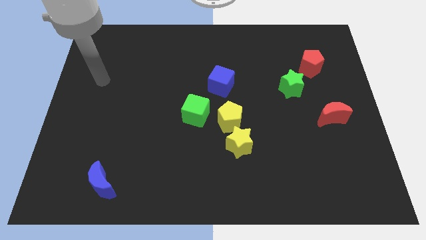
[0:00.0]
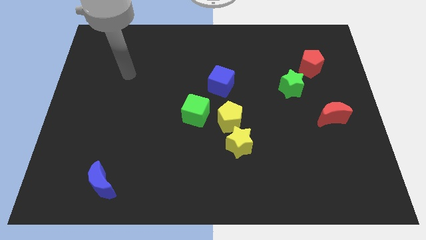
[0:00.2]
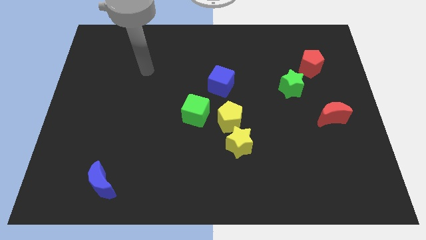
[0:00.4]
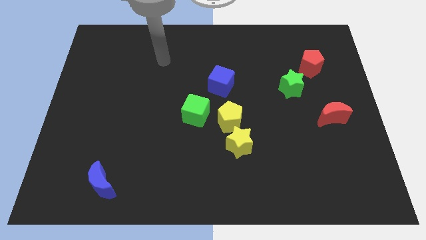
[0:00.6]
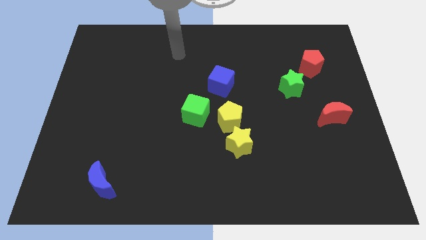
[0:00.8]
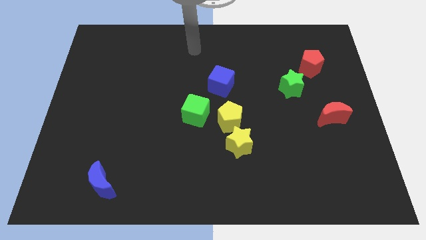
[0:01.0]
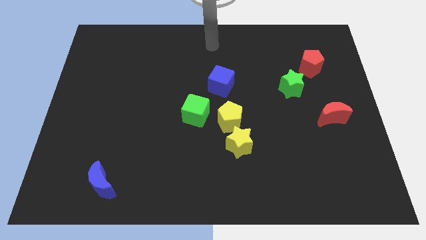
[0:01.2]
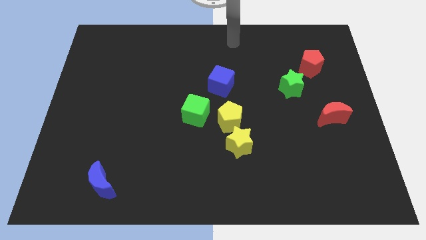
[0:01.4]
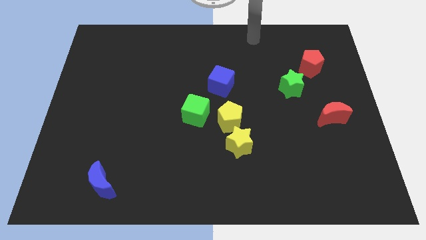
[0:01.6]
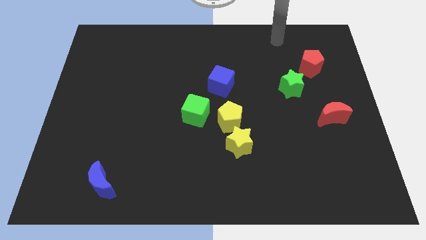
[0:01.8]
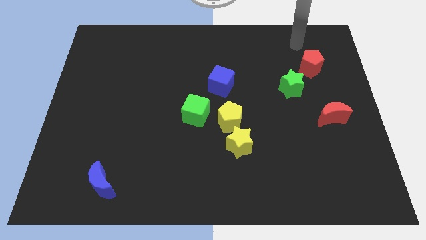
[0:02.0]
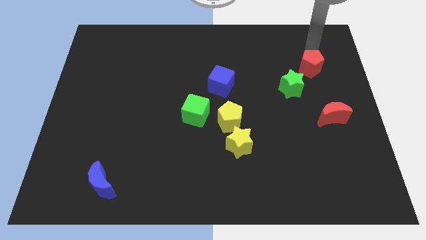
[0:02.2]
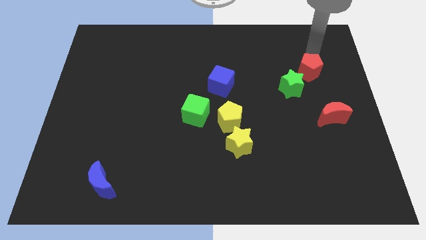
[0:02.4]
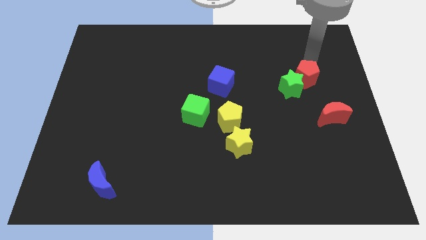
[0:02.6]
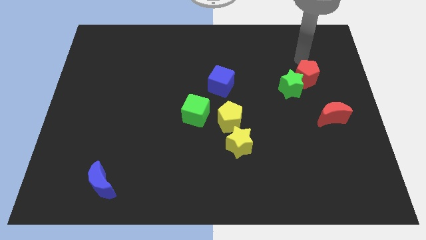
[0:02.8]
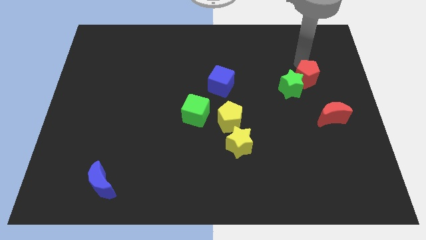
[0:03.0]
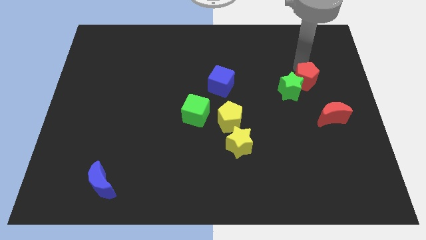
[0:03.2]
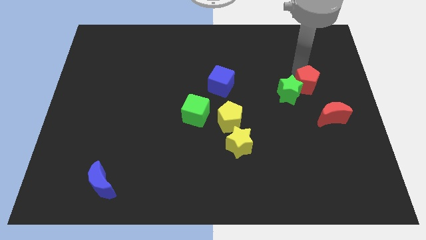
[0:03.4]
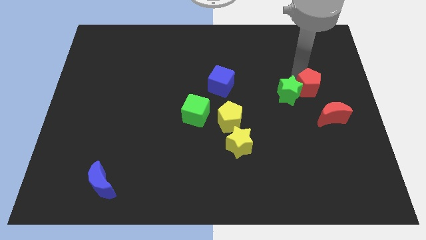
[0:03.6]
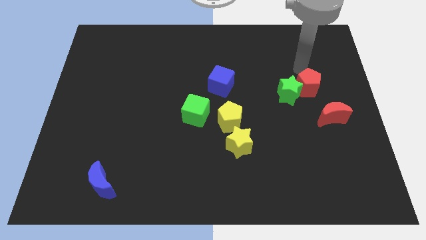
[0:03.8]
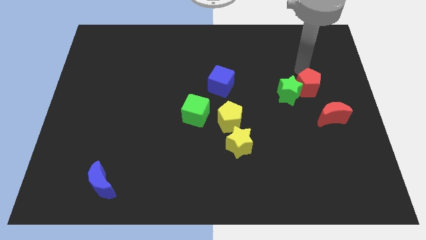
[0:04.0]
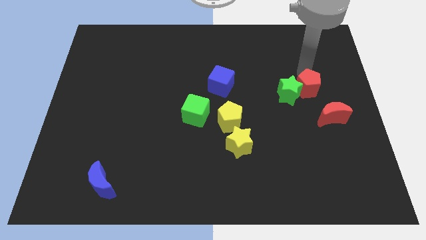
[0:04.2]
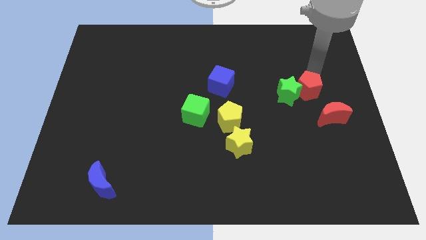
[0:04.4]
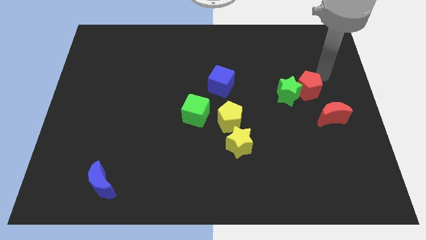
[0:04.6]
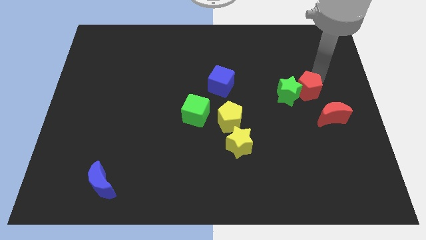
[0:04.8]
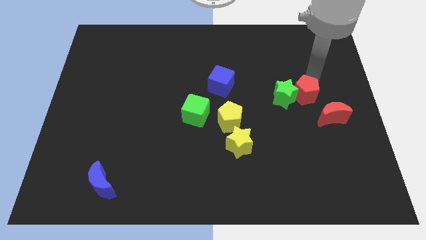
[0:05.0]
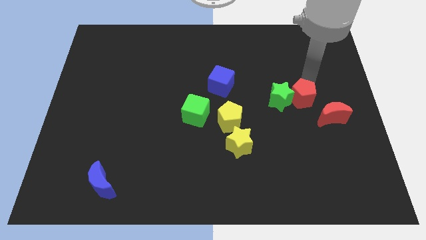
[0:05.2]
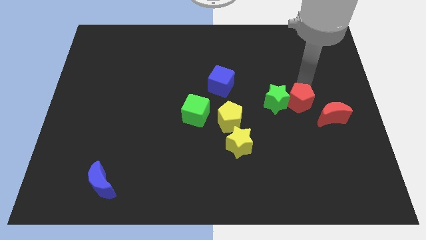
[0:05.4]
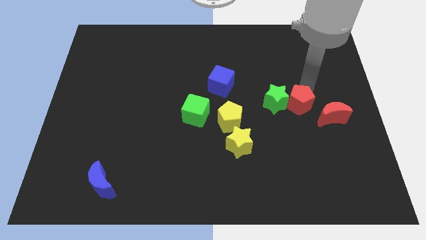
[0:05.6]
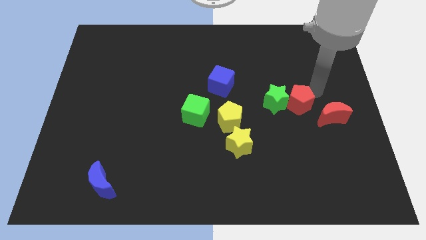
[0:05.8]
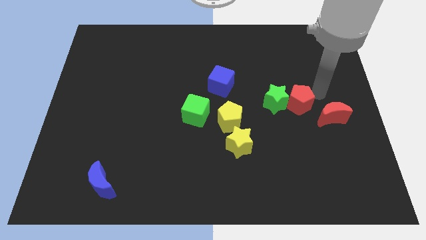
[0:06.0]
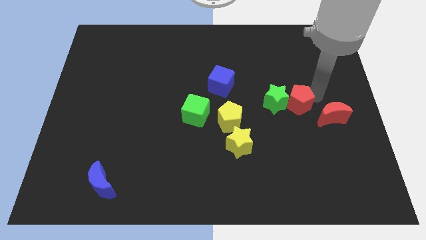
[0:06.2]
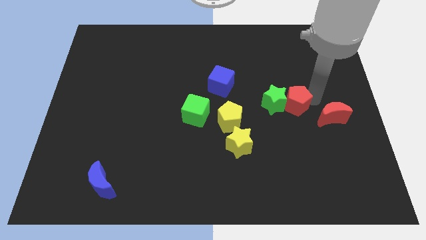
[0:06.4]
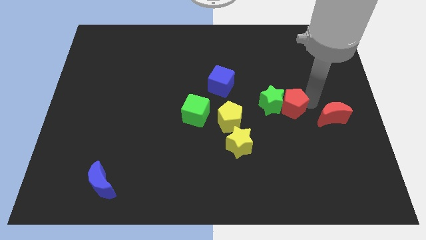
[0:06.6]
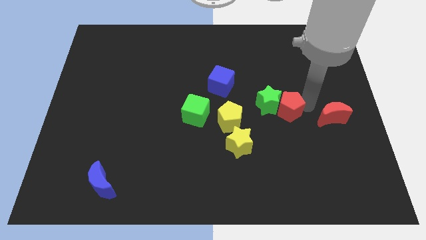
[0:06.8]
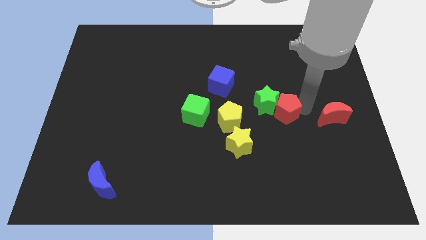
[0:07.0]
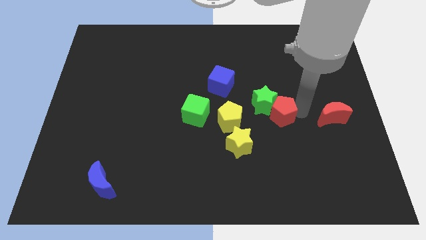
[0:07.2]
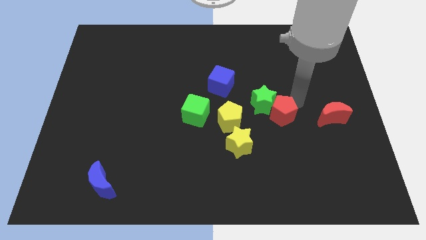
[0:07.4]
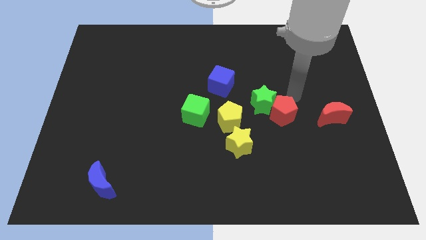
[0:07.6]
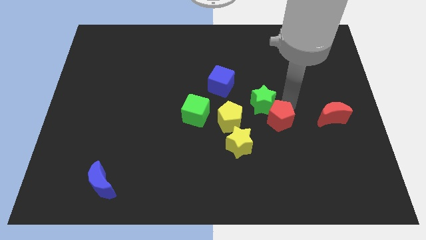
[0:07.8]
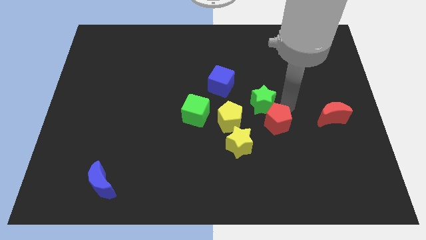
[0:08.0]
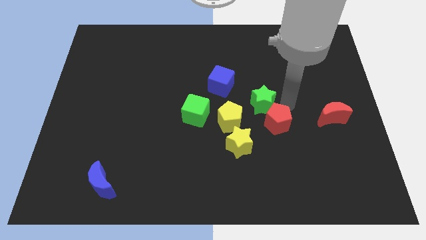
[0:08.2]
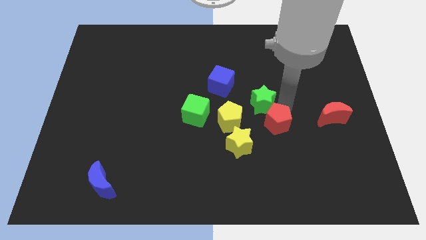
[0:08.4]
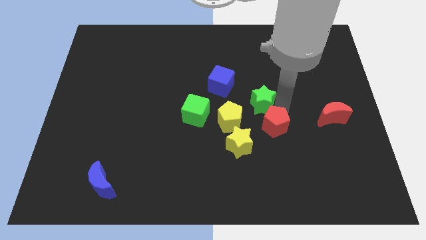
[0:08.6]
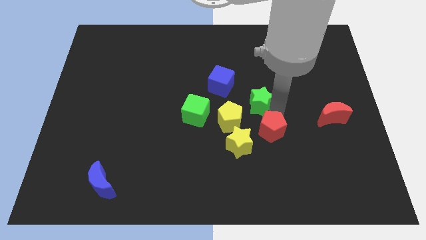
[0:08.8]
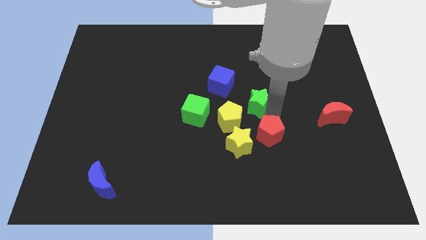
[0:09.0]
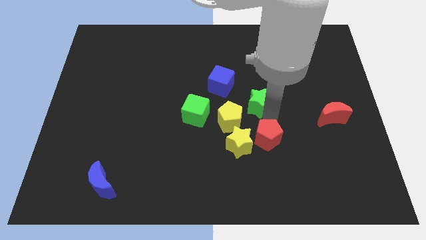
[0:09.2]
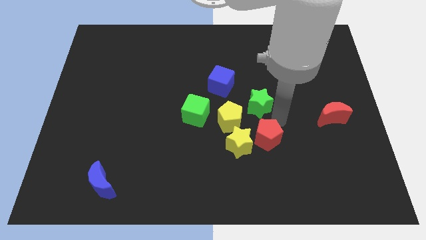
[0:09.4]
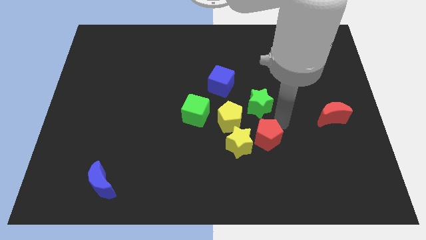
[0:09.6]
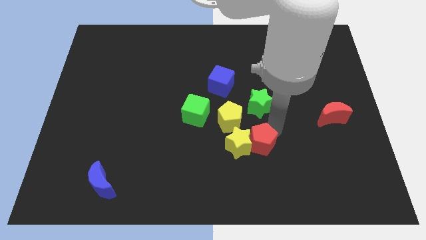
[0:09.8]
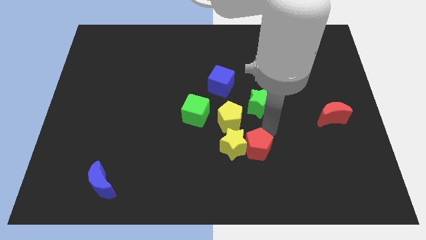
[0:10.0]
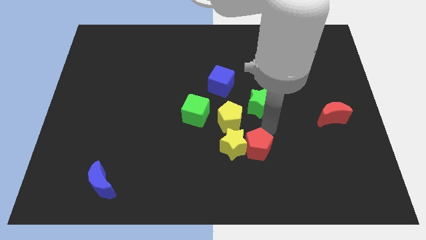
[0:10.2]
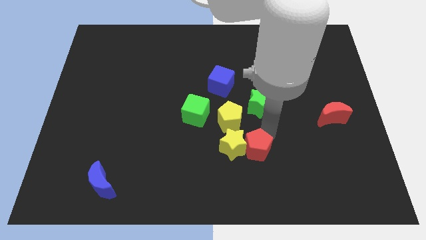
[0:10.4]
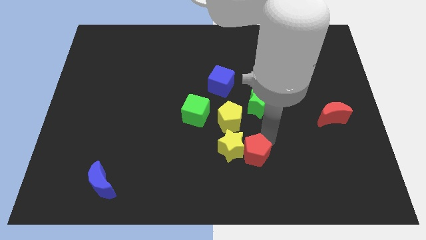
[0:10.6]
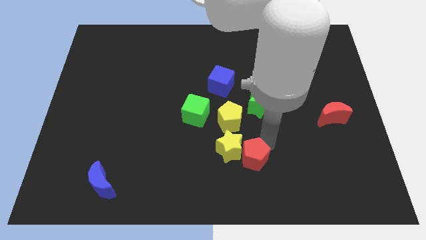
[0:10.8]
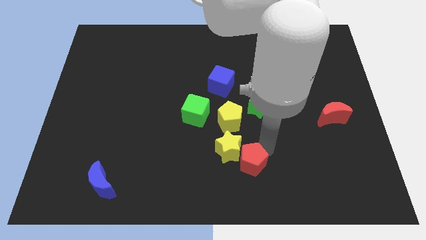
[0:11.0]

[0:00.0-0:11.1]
move the red pentagon to the bottom
